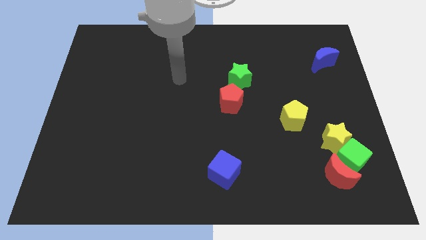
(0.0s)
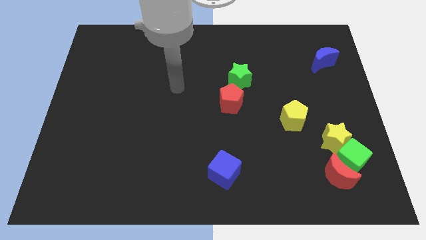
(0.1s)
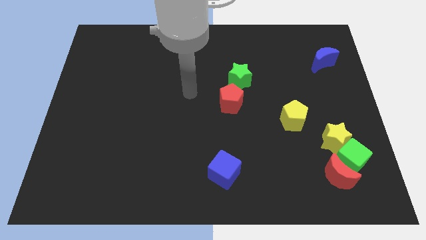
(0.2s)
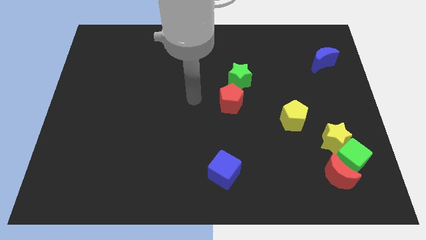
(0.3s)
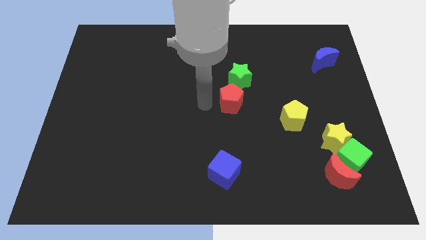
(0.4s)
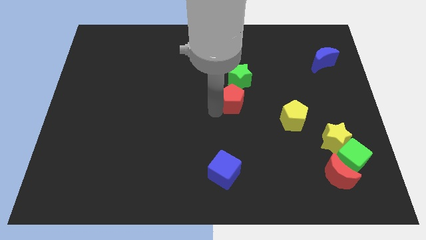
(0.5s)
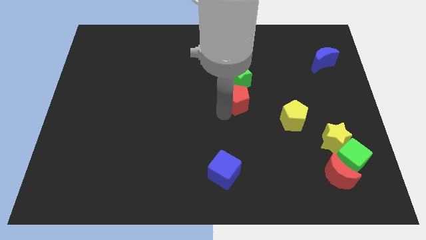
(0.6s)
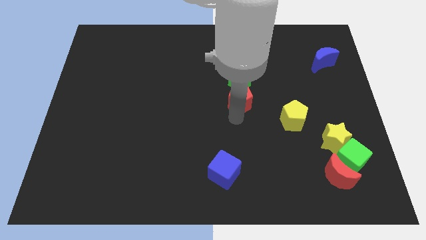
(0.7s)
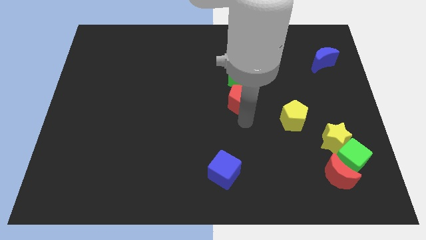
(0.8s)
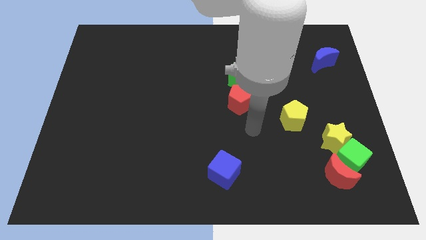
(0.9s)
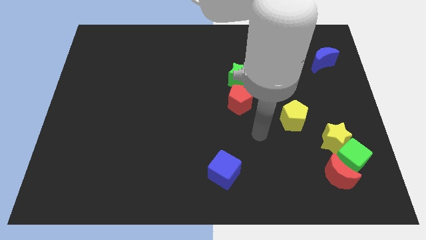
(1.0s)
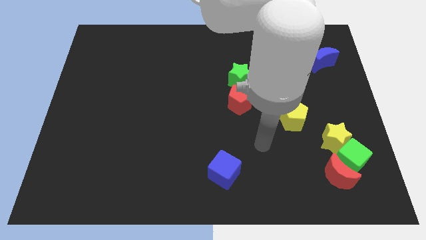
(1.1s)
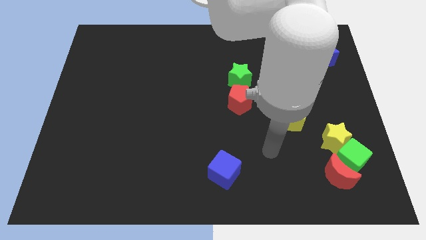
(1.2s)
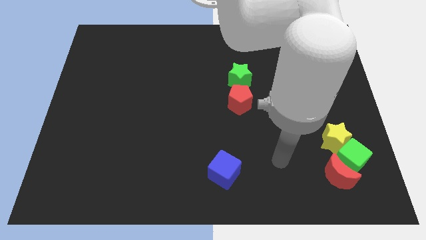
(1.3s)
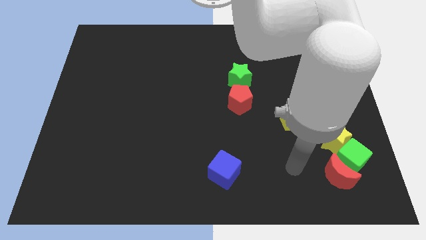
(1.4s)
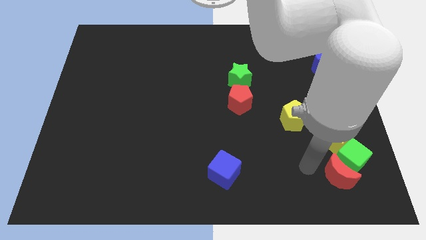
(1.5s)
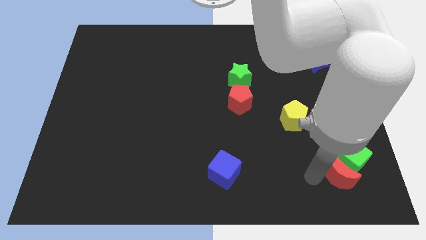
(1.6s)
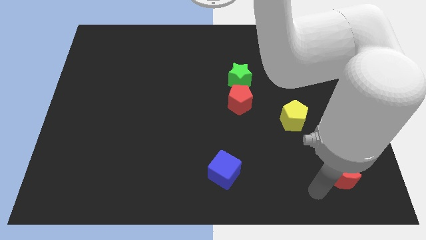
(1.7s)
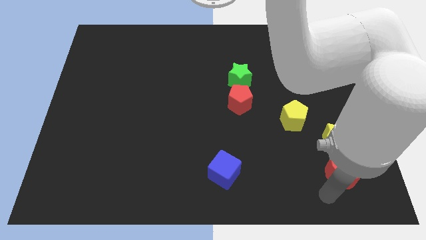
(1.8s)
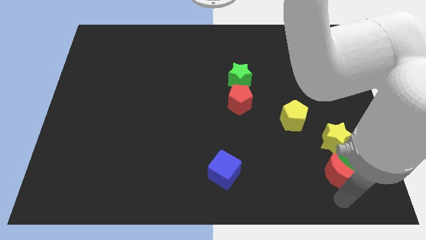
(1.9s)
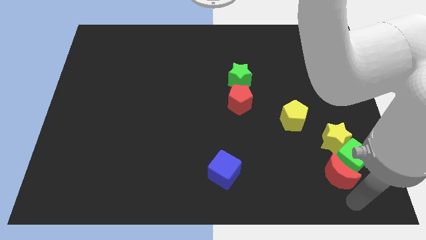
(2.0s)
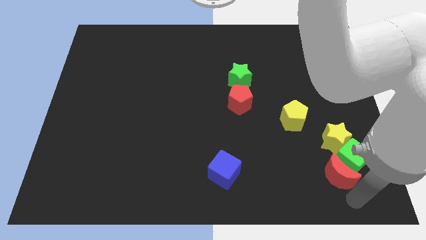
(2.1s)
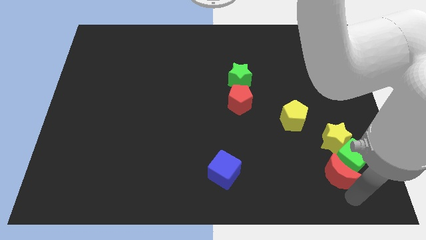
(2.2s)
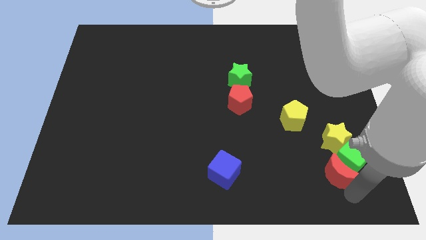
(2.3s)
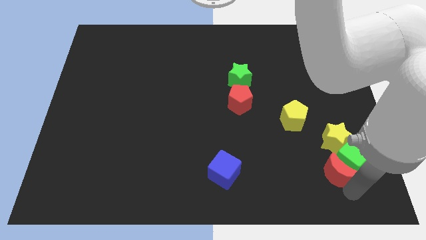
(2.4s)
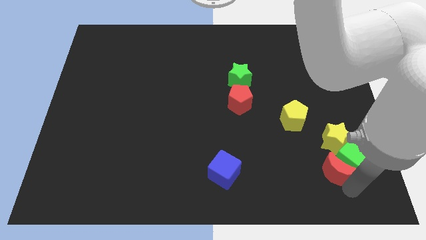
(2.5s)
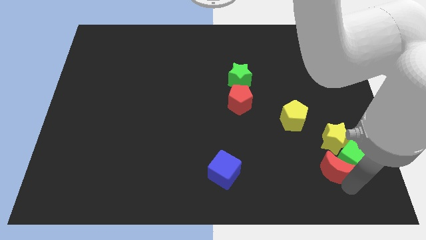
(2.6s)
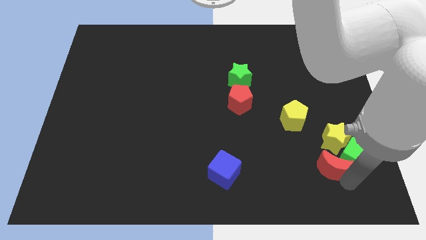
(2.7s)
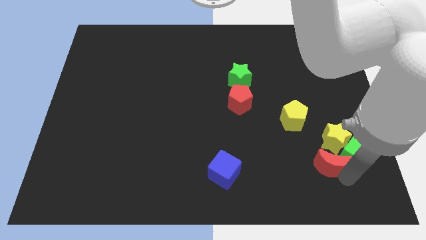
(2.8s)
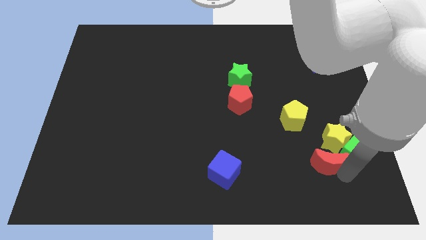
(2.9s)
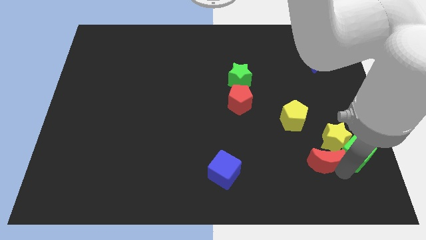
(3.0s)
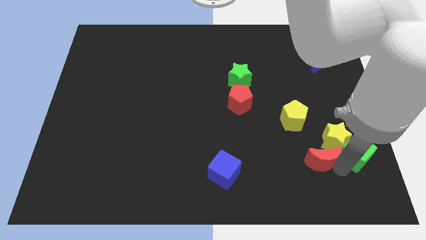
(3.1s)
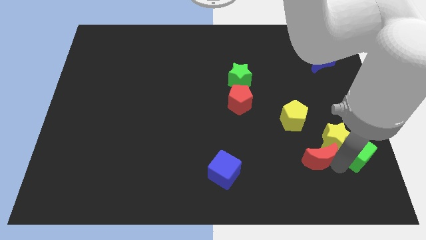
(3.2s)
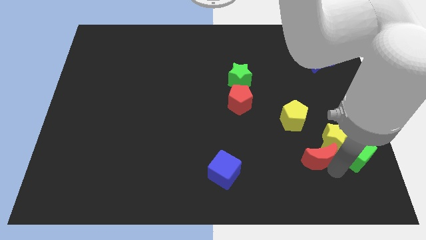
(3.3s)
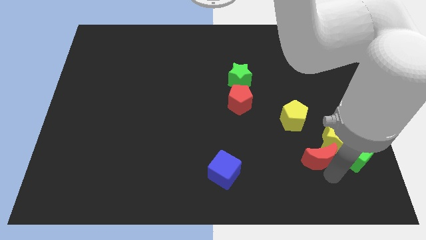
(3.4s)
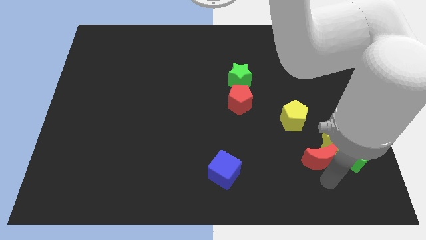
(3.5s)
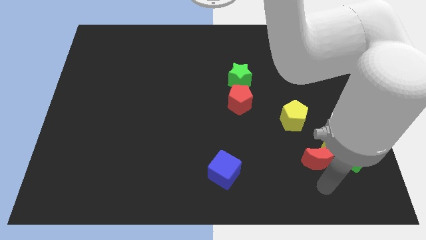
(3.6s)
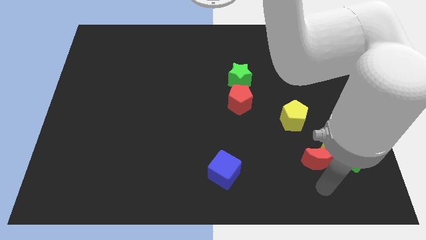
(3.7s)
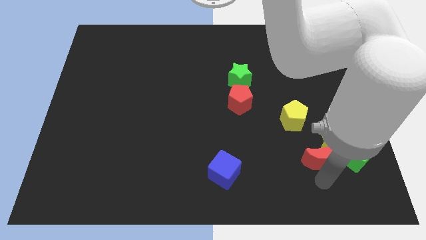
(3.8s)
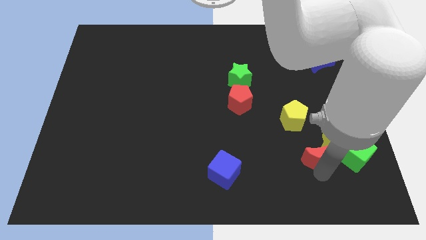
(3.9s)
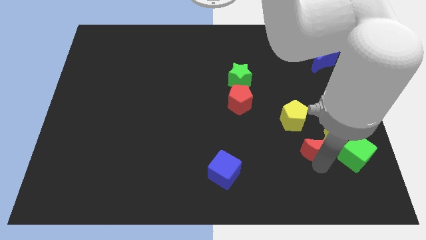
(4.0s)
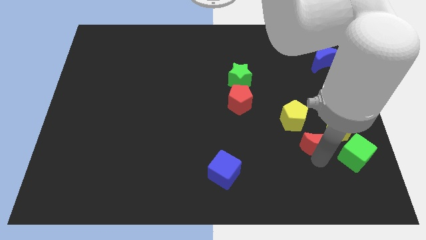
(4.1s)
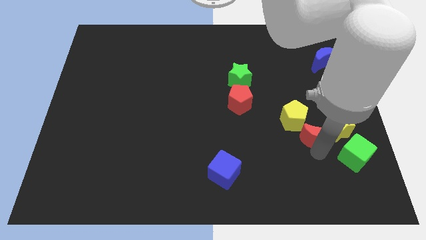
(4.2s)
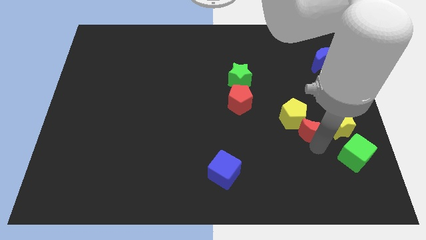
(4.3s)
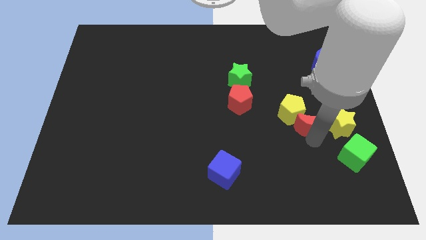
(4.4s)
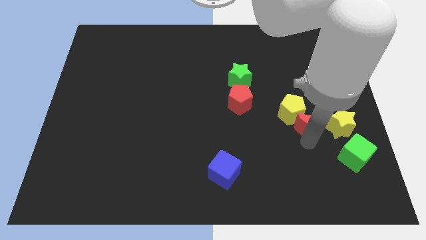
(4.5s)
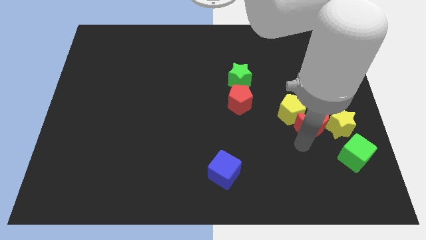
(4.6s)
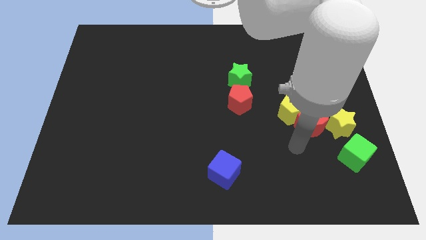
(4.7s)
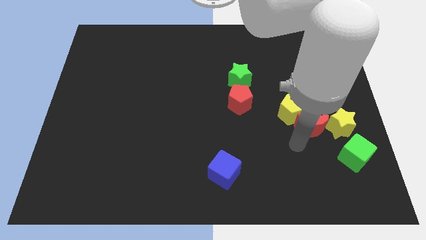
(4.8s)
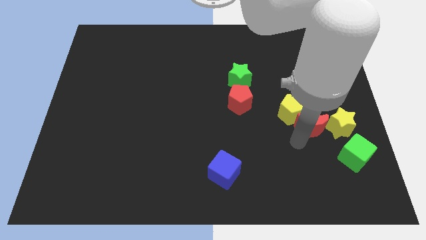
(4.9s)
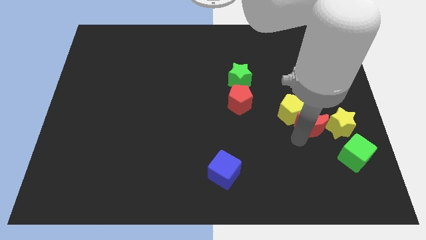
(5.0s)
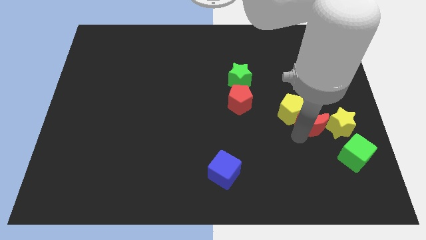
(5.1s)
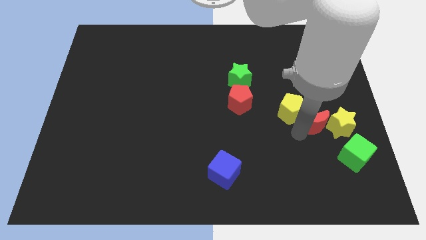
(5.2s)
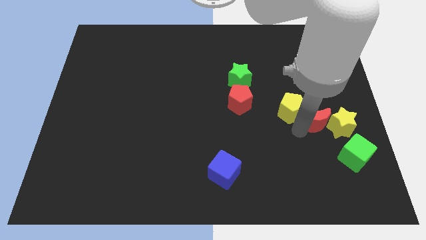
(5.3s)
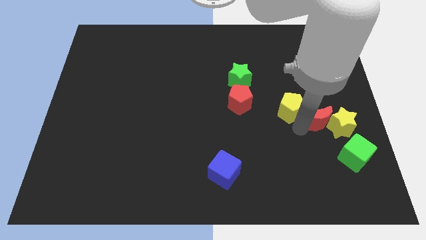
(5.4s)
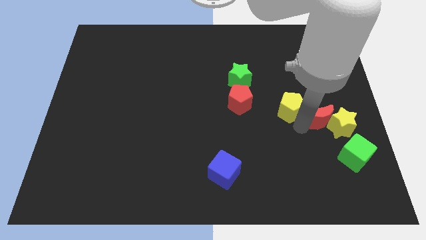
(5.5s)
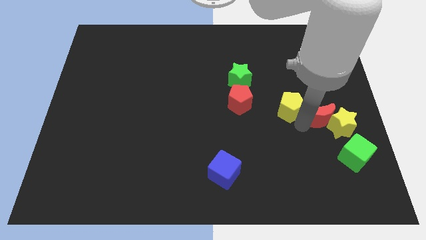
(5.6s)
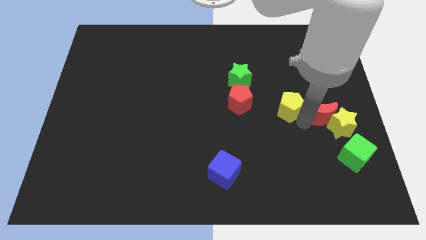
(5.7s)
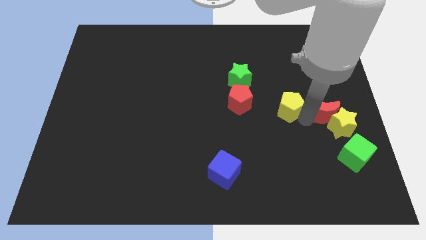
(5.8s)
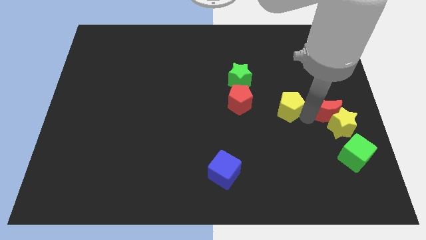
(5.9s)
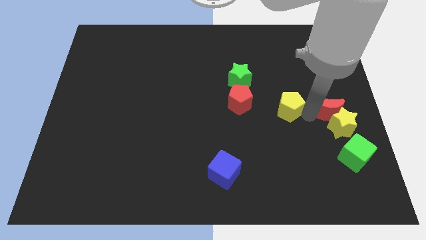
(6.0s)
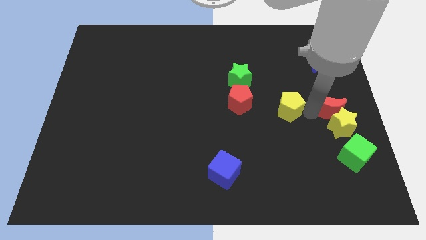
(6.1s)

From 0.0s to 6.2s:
move the red moon to the bottom of the blue moon
